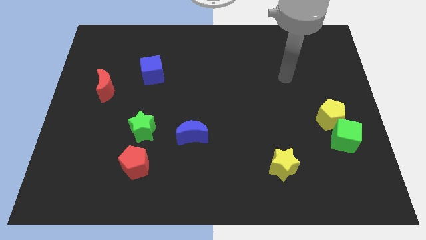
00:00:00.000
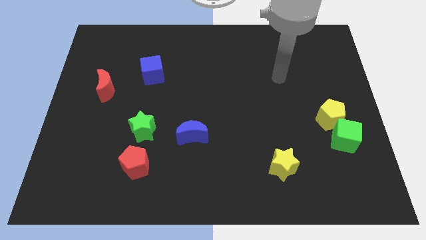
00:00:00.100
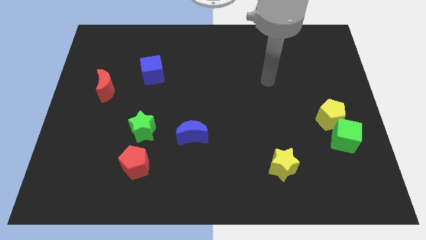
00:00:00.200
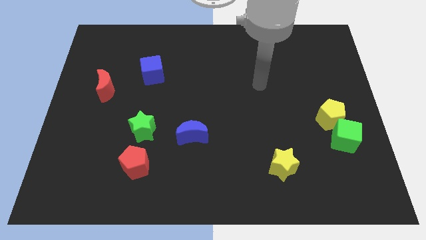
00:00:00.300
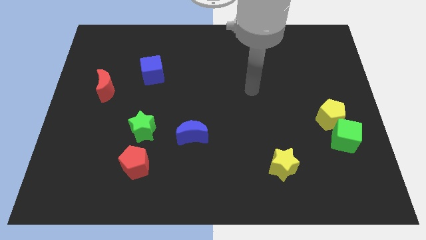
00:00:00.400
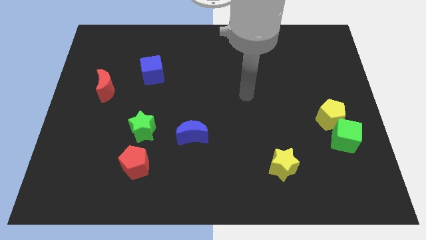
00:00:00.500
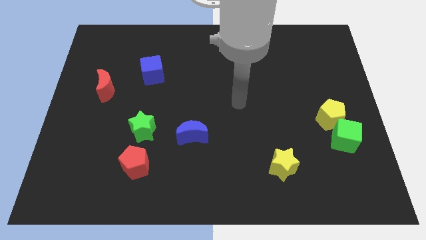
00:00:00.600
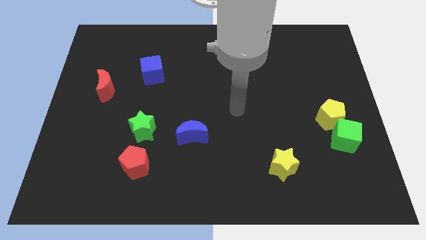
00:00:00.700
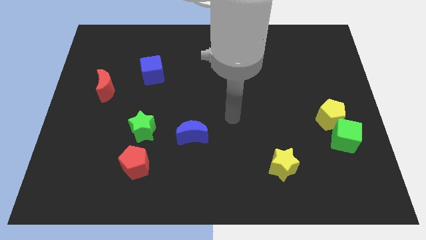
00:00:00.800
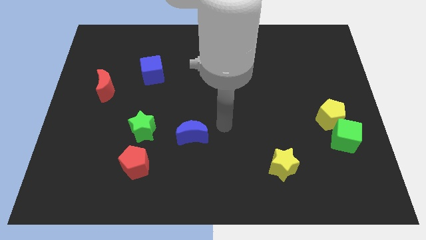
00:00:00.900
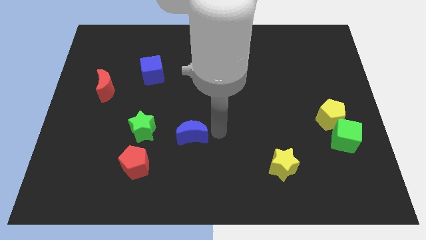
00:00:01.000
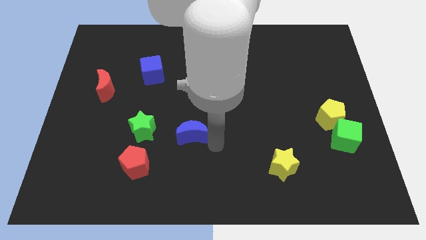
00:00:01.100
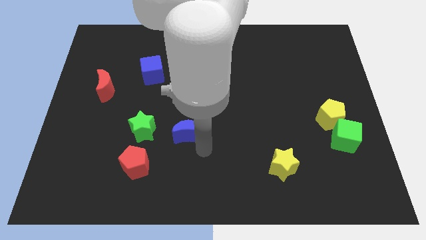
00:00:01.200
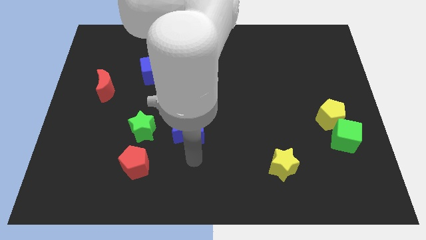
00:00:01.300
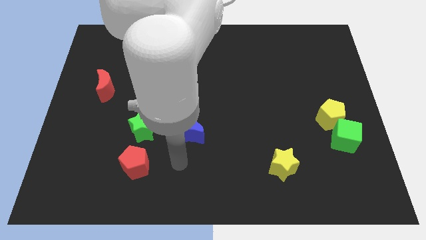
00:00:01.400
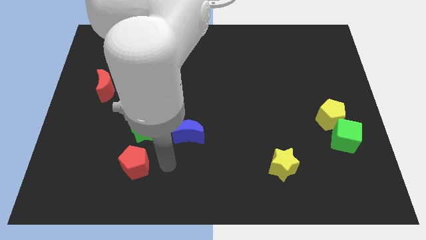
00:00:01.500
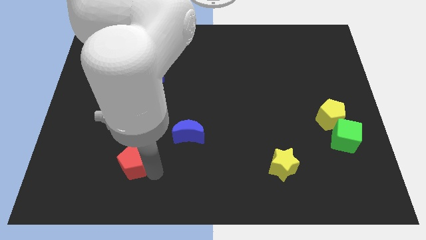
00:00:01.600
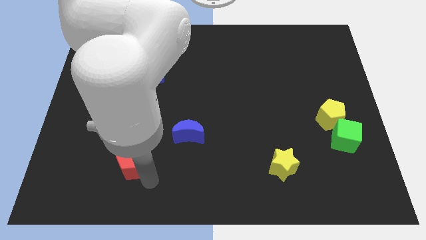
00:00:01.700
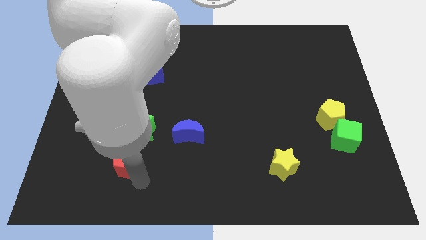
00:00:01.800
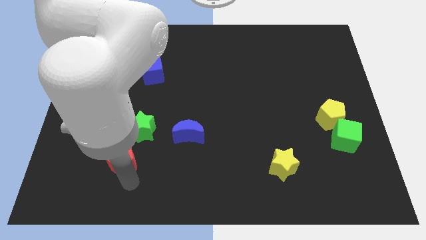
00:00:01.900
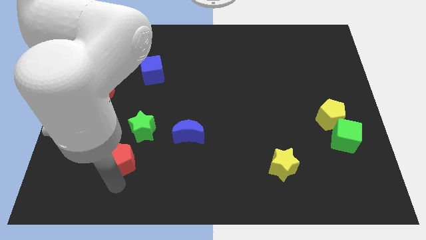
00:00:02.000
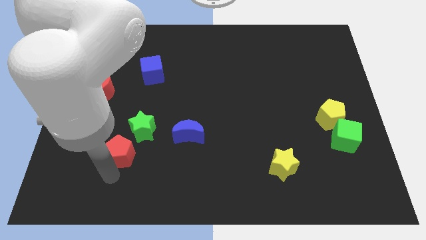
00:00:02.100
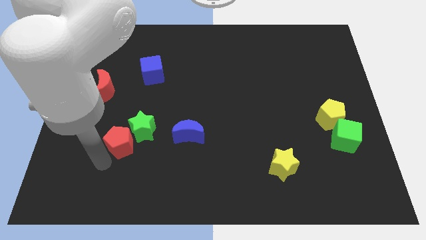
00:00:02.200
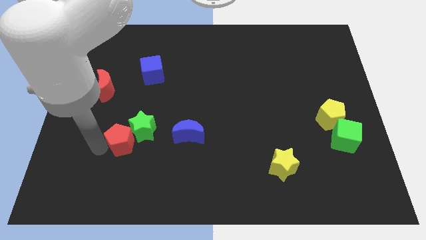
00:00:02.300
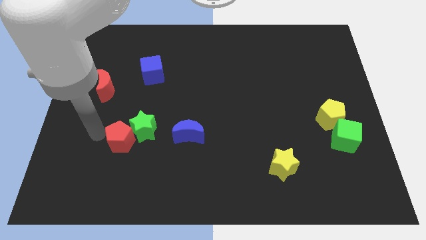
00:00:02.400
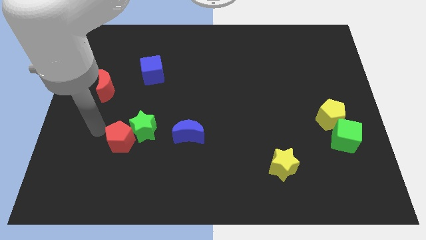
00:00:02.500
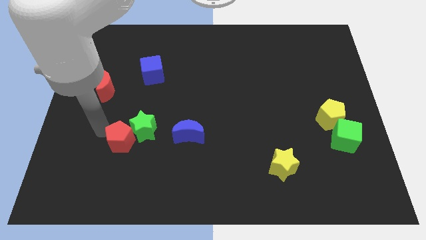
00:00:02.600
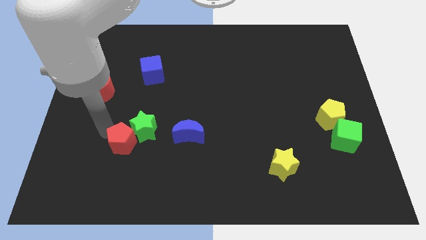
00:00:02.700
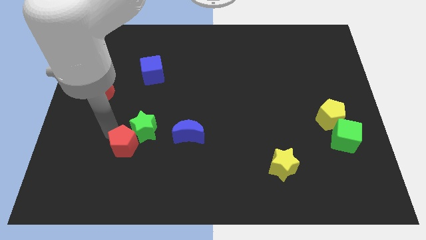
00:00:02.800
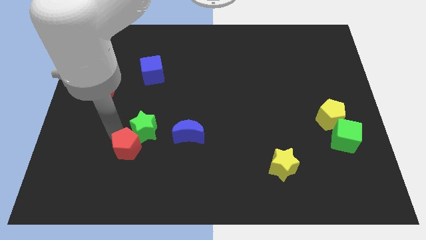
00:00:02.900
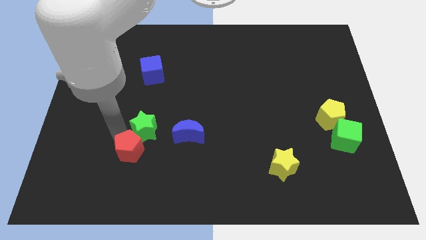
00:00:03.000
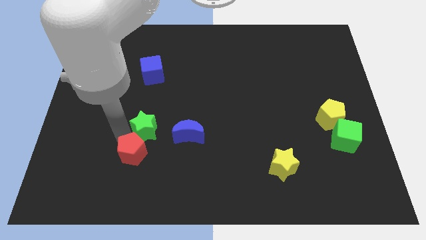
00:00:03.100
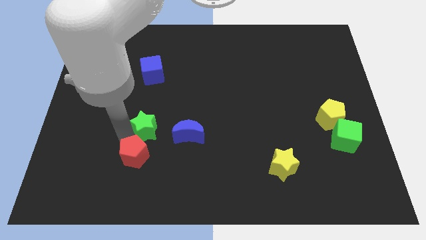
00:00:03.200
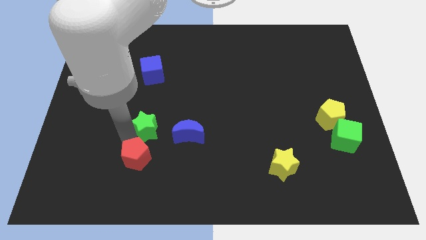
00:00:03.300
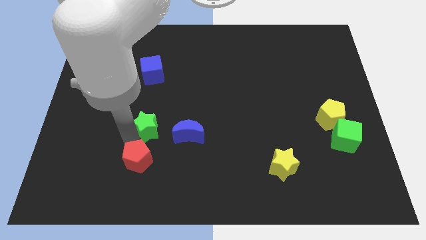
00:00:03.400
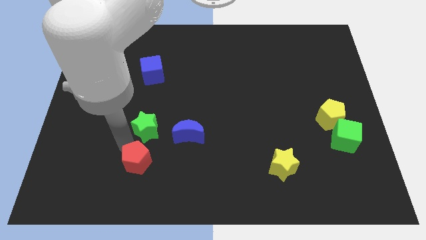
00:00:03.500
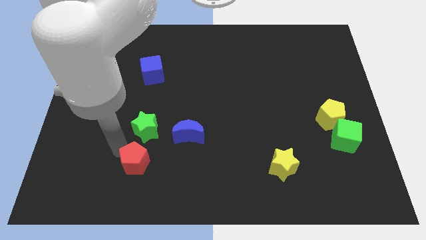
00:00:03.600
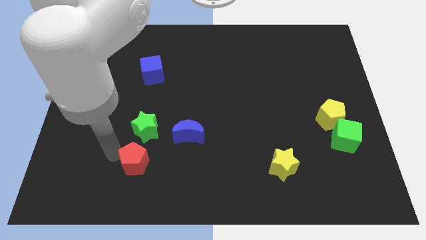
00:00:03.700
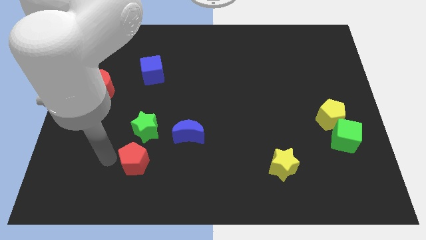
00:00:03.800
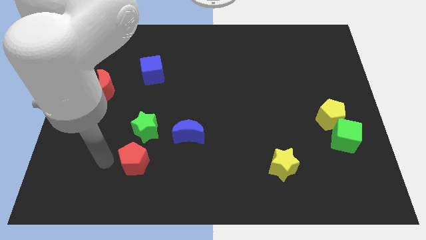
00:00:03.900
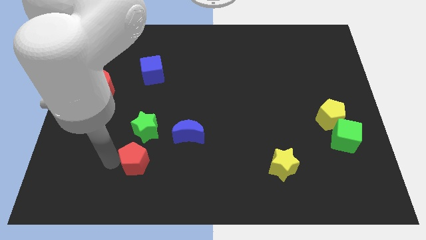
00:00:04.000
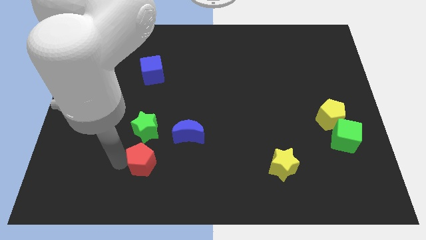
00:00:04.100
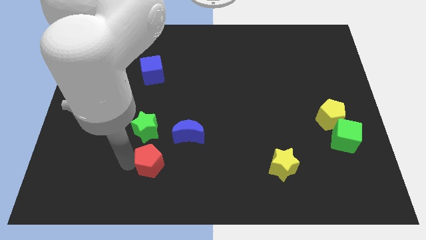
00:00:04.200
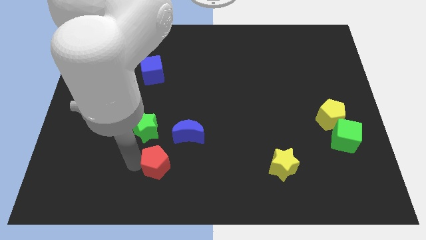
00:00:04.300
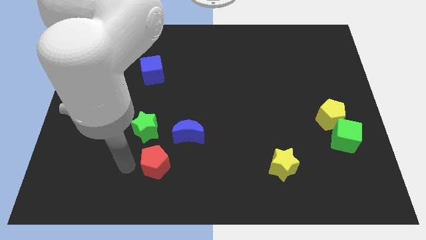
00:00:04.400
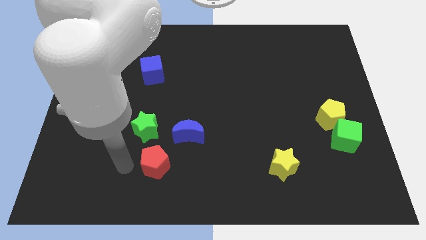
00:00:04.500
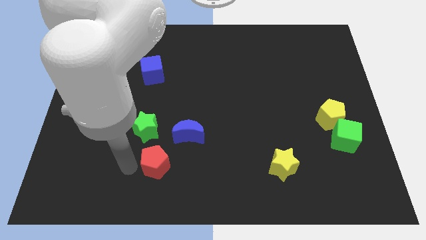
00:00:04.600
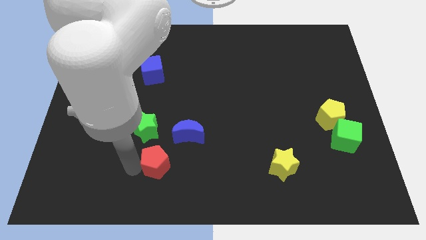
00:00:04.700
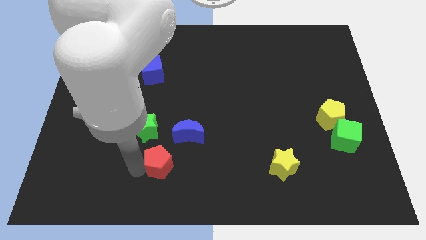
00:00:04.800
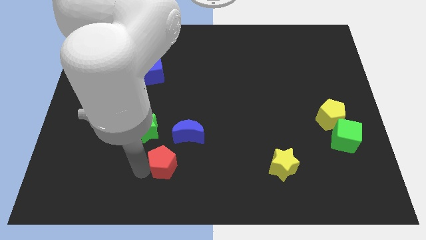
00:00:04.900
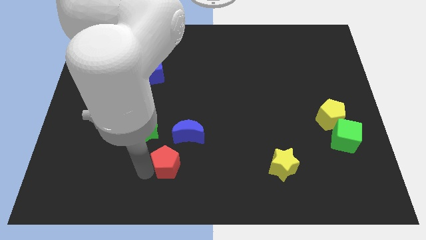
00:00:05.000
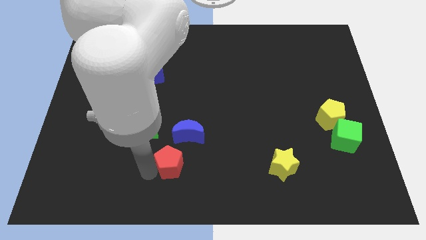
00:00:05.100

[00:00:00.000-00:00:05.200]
slightly slide the red pentagon to the right

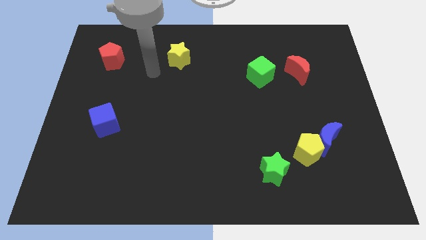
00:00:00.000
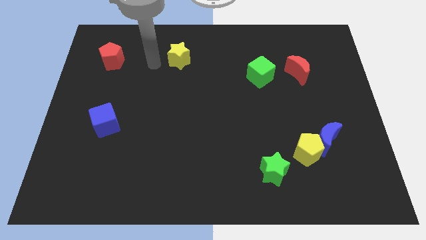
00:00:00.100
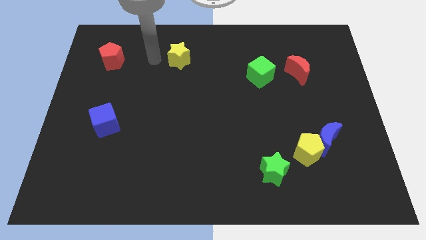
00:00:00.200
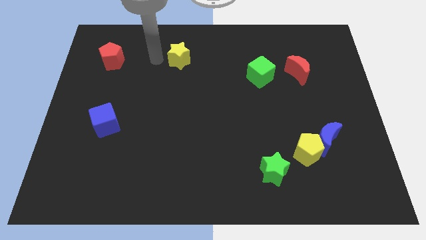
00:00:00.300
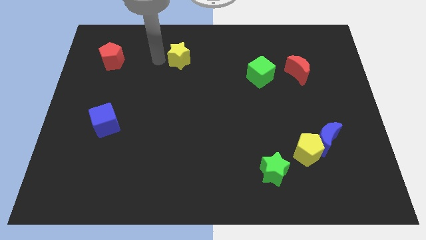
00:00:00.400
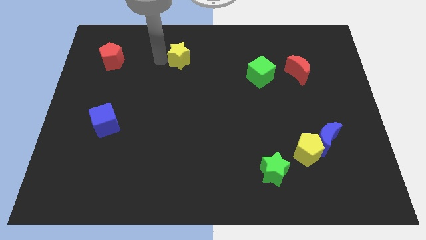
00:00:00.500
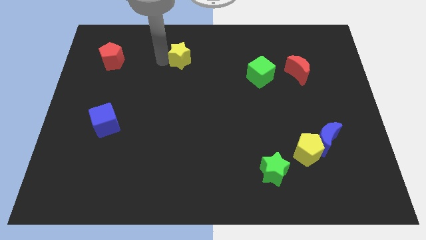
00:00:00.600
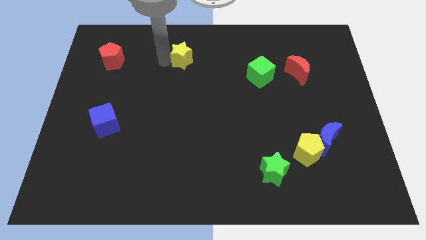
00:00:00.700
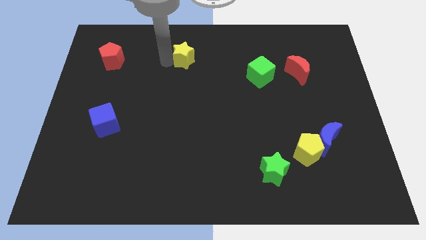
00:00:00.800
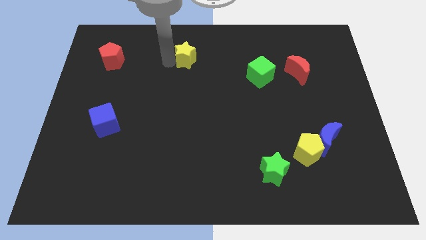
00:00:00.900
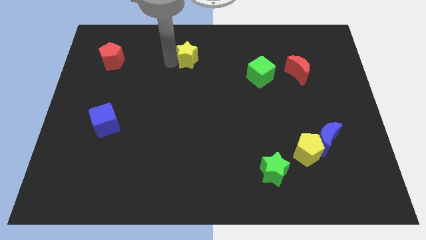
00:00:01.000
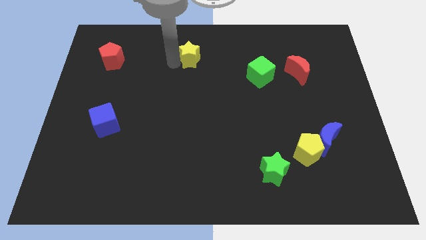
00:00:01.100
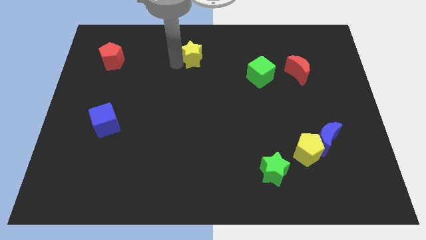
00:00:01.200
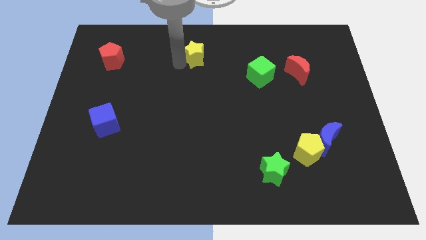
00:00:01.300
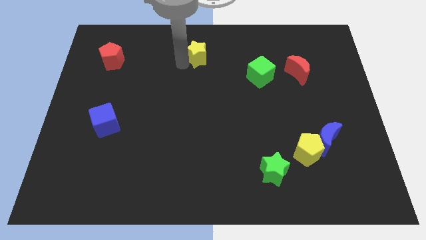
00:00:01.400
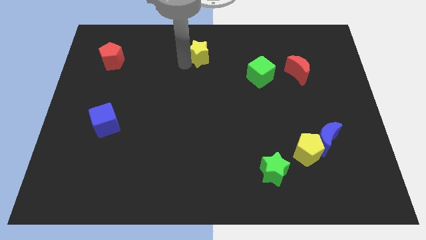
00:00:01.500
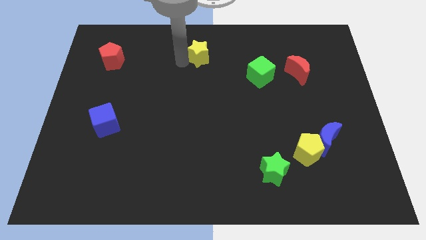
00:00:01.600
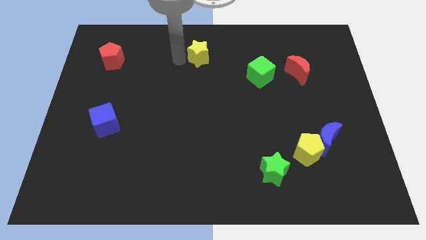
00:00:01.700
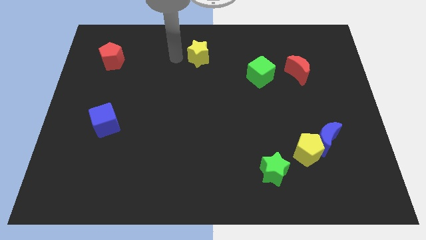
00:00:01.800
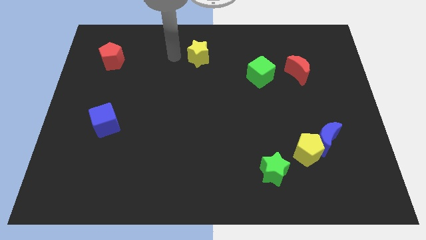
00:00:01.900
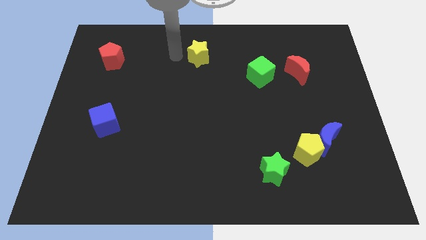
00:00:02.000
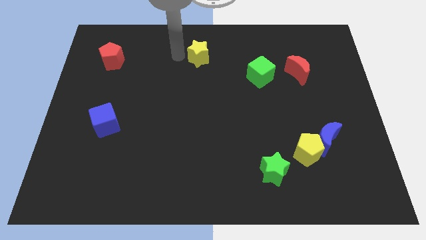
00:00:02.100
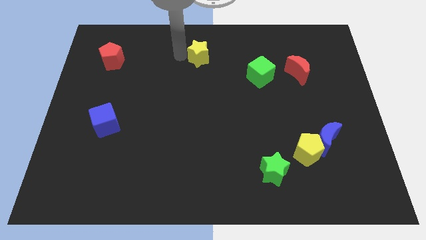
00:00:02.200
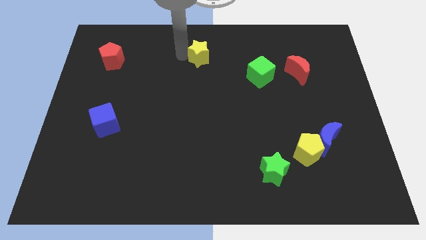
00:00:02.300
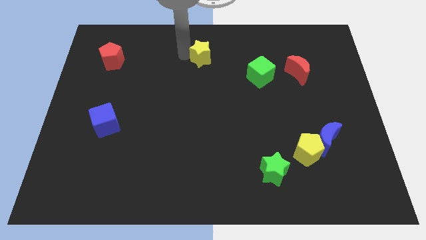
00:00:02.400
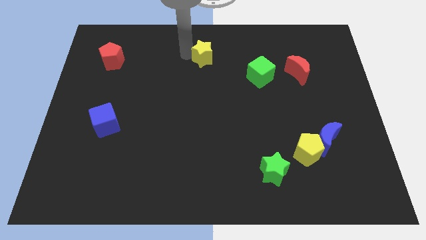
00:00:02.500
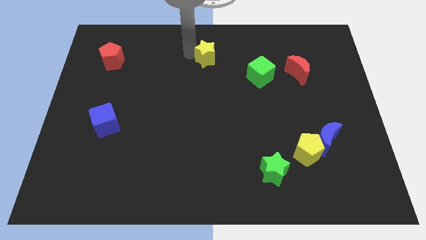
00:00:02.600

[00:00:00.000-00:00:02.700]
slightly move the yellow star right

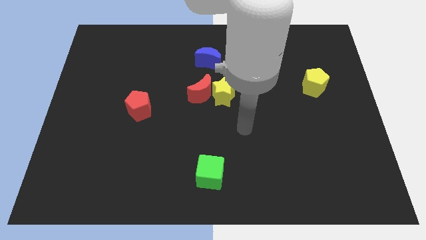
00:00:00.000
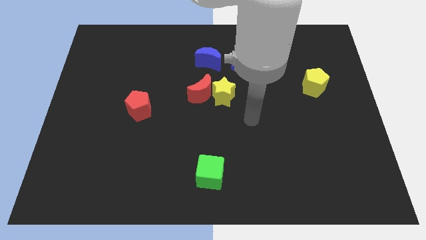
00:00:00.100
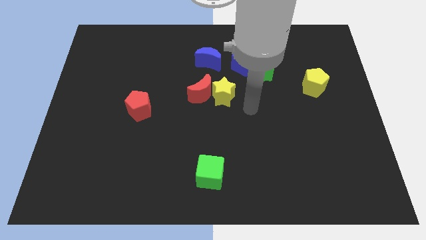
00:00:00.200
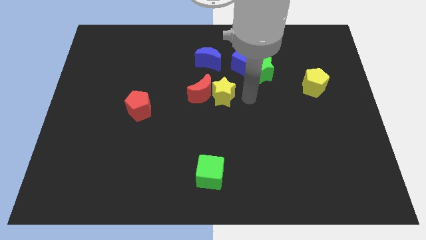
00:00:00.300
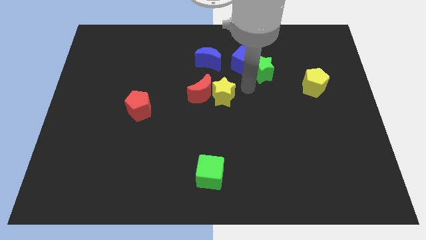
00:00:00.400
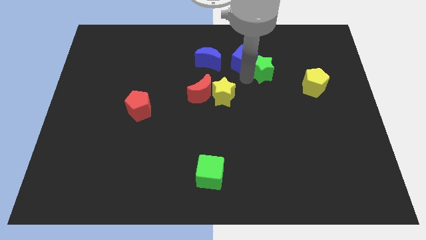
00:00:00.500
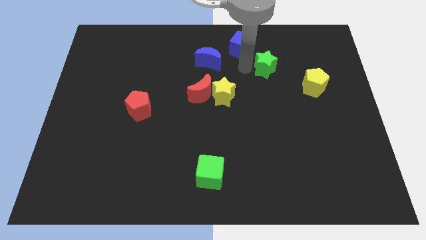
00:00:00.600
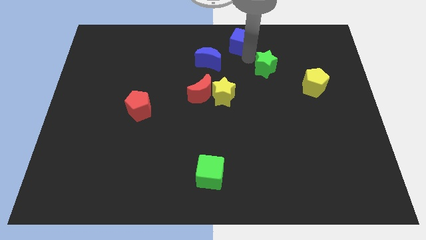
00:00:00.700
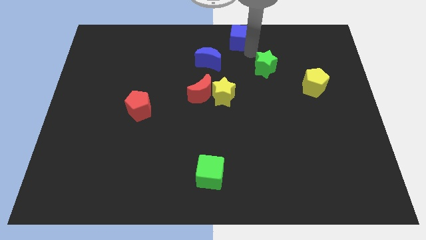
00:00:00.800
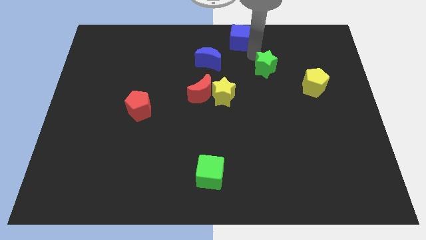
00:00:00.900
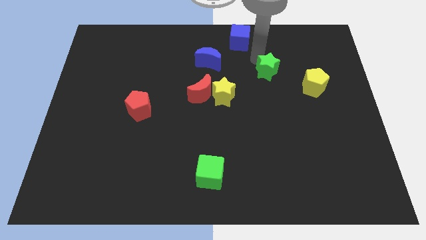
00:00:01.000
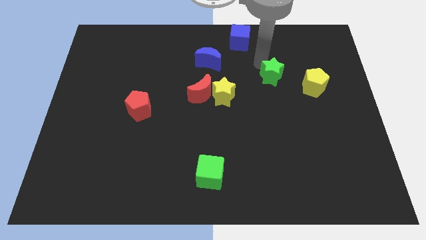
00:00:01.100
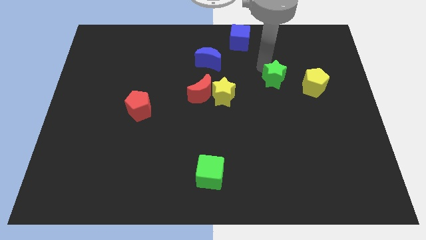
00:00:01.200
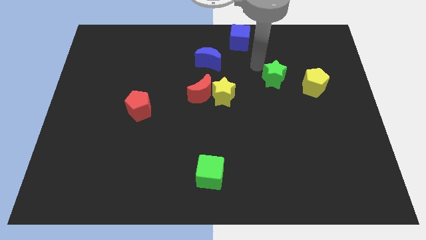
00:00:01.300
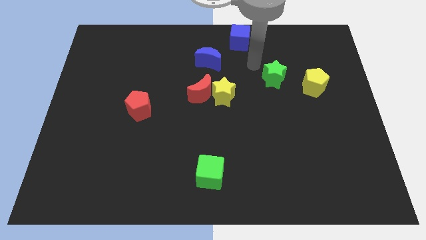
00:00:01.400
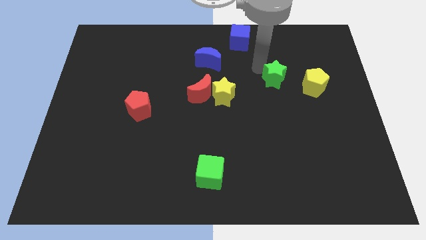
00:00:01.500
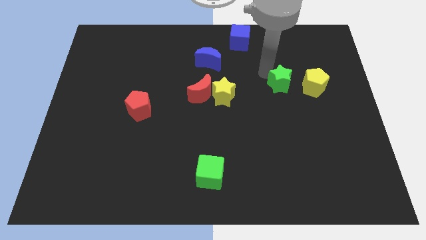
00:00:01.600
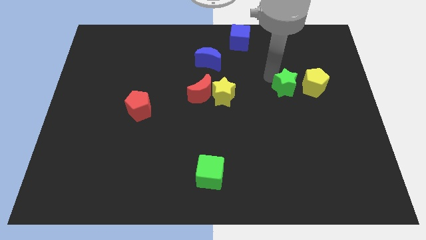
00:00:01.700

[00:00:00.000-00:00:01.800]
slide the green star a bit downwards and right
